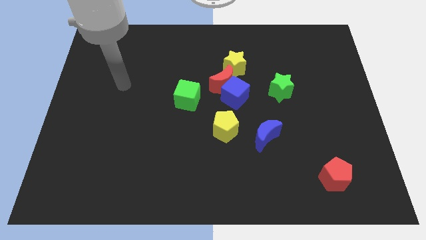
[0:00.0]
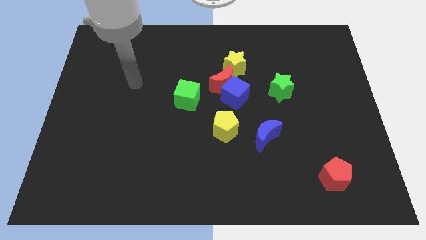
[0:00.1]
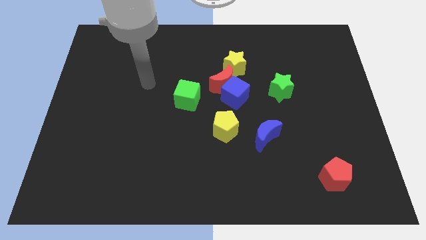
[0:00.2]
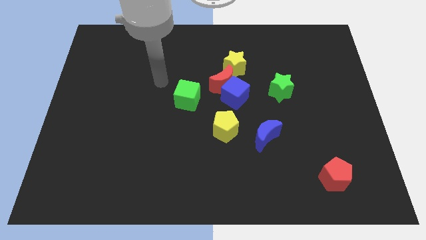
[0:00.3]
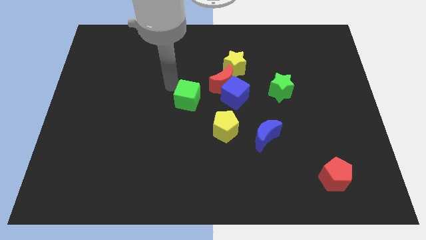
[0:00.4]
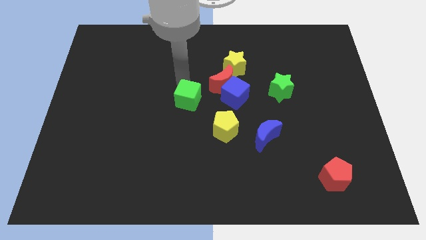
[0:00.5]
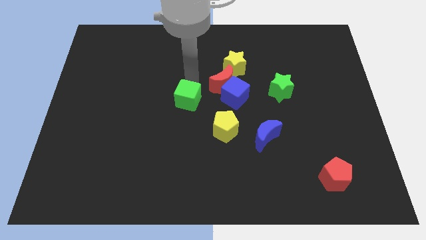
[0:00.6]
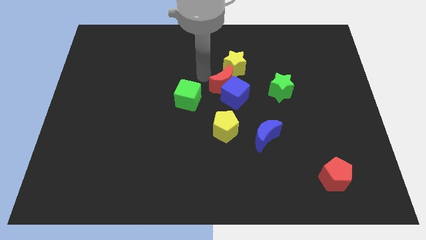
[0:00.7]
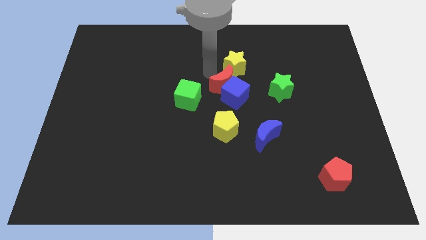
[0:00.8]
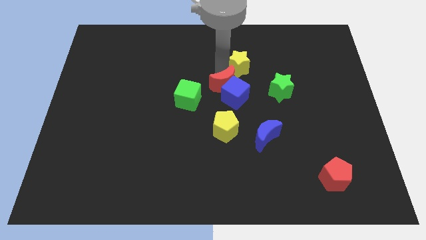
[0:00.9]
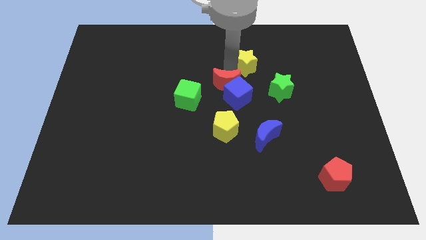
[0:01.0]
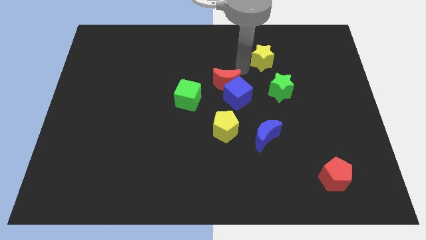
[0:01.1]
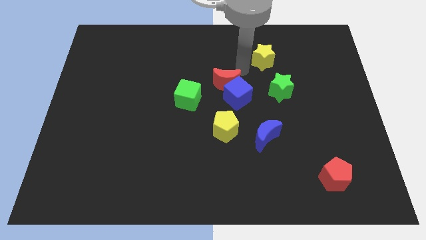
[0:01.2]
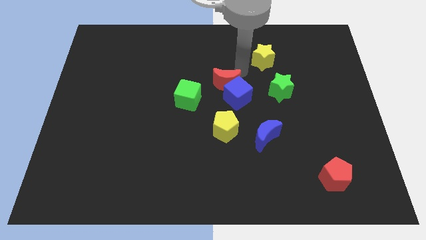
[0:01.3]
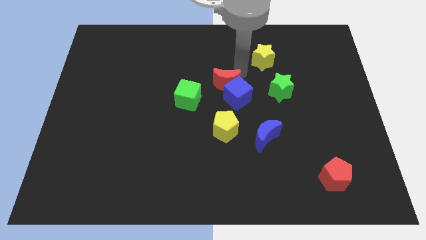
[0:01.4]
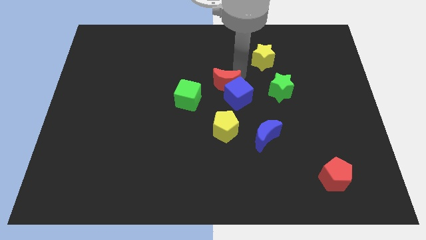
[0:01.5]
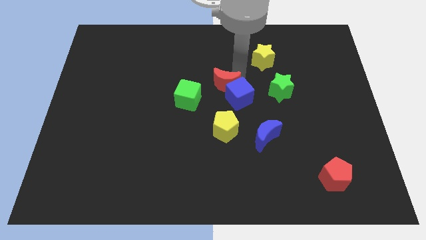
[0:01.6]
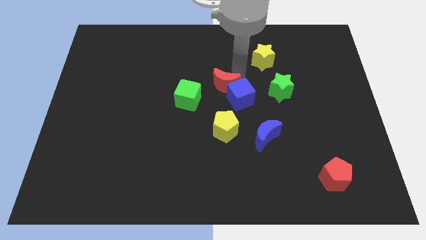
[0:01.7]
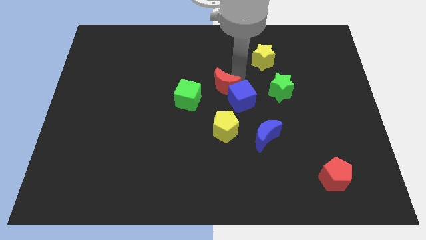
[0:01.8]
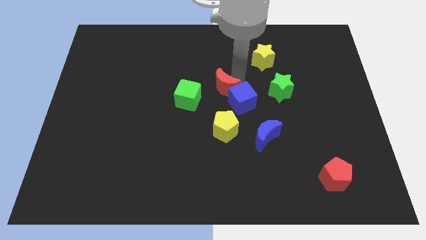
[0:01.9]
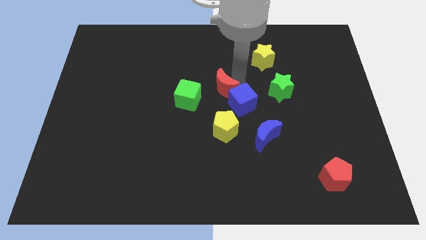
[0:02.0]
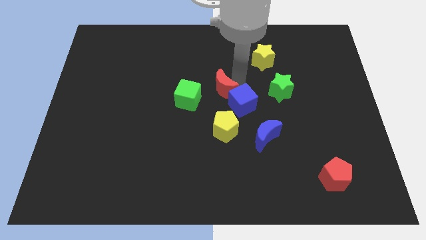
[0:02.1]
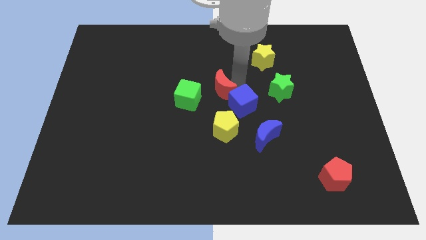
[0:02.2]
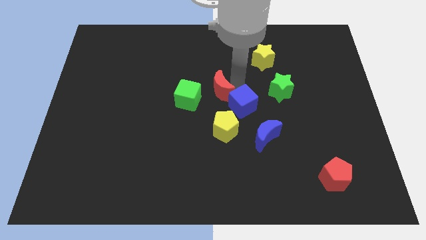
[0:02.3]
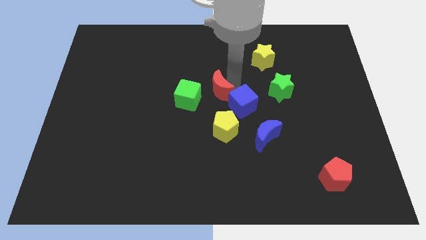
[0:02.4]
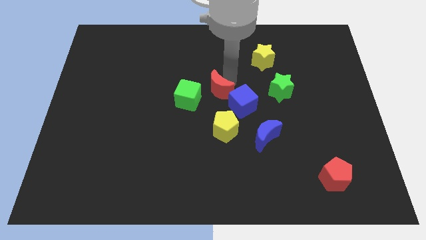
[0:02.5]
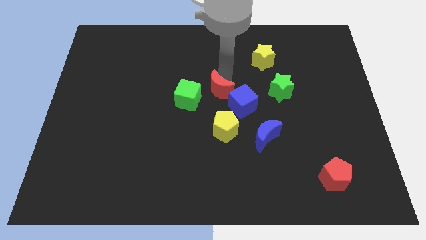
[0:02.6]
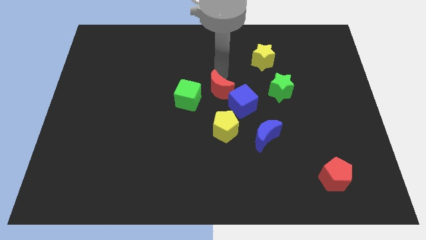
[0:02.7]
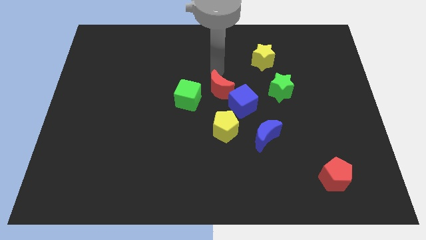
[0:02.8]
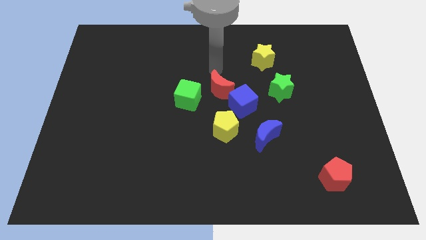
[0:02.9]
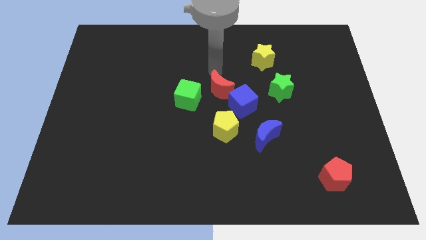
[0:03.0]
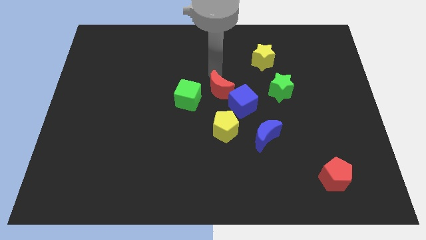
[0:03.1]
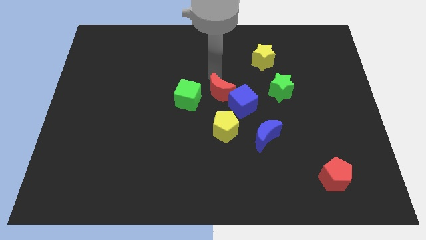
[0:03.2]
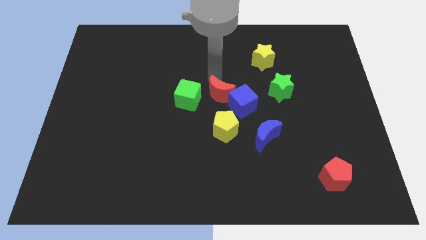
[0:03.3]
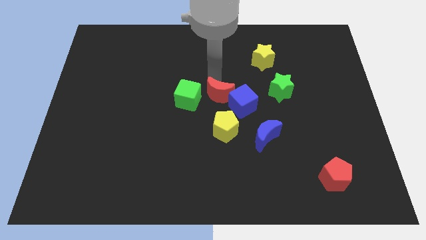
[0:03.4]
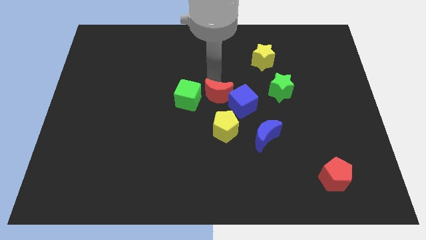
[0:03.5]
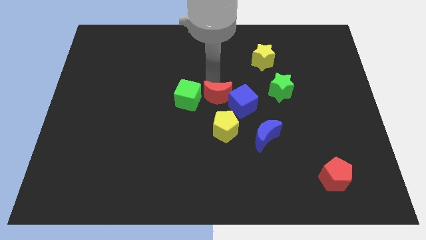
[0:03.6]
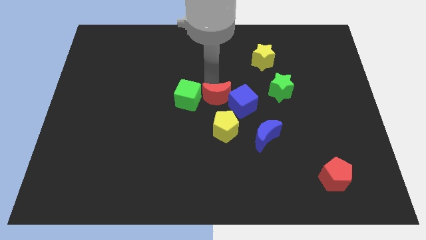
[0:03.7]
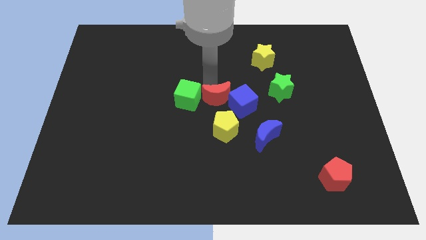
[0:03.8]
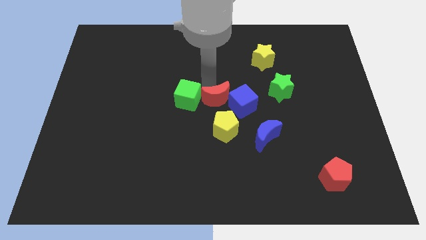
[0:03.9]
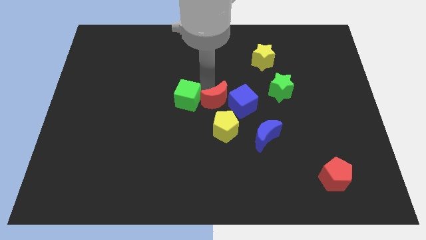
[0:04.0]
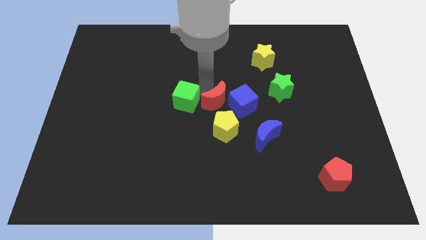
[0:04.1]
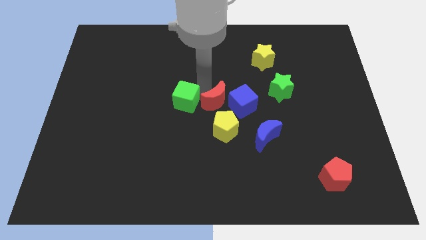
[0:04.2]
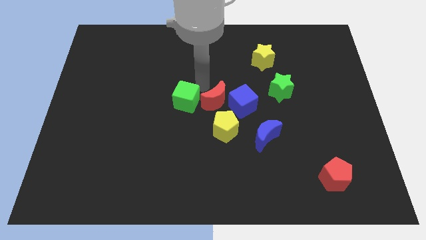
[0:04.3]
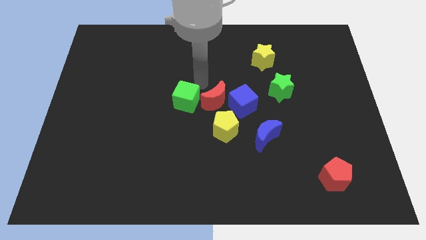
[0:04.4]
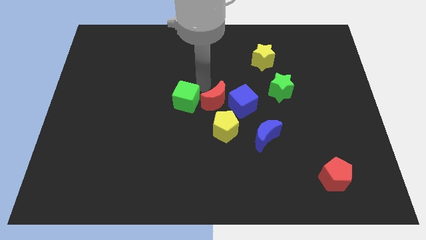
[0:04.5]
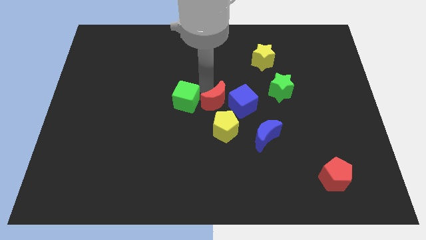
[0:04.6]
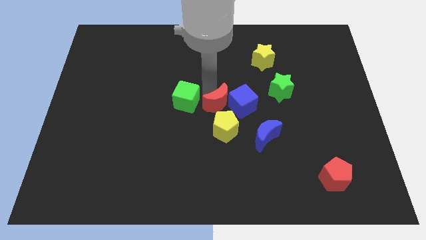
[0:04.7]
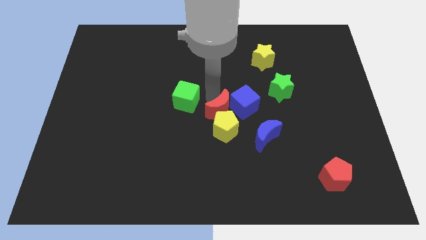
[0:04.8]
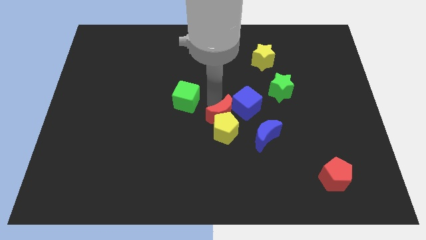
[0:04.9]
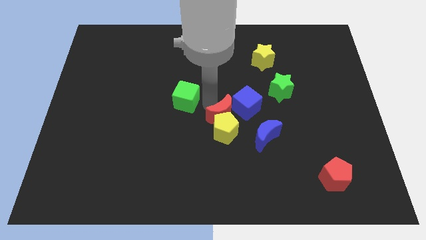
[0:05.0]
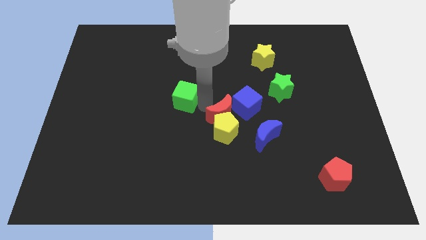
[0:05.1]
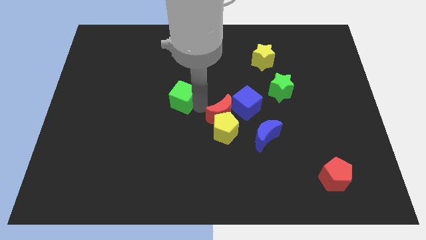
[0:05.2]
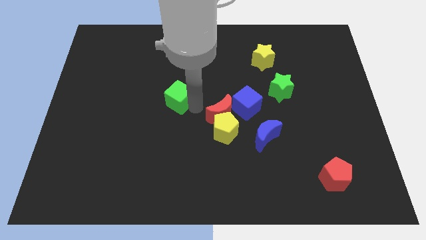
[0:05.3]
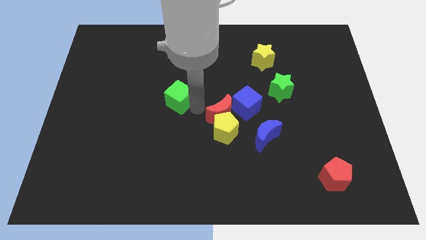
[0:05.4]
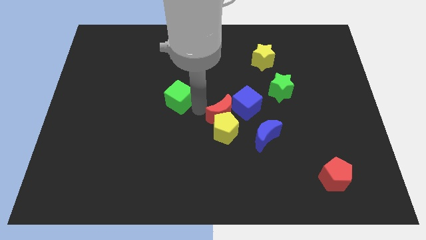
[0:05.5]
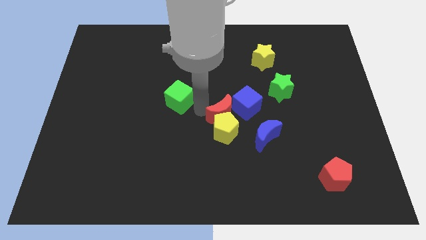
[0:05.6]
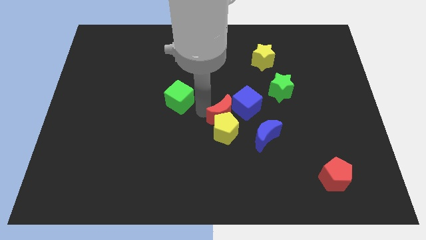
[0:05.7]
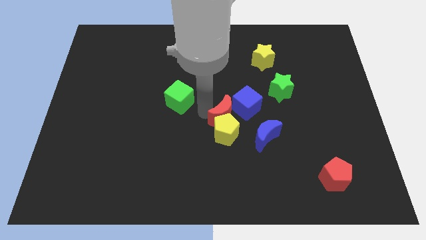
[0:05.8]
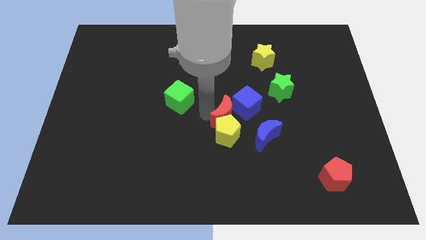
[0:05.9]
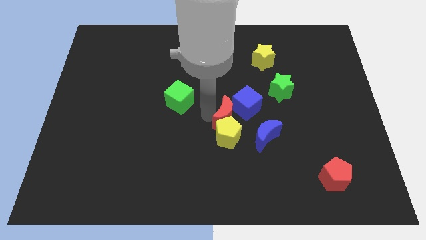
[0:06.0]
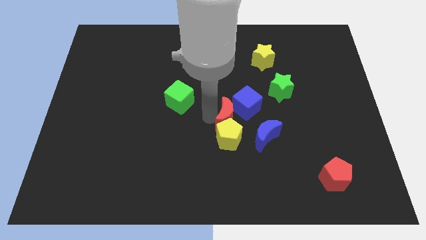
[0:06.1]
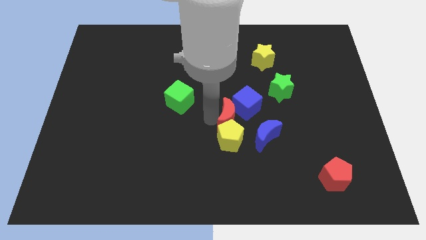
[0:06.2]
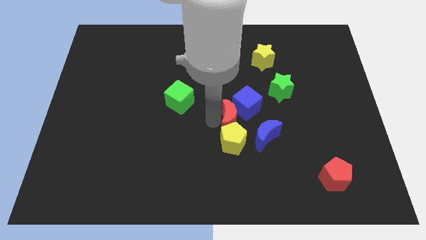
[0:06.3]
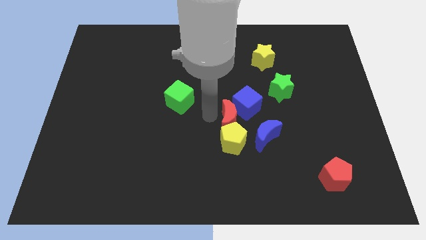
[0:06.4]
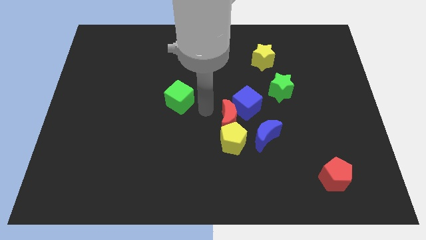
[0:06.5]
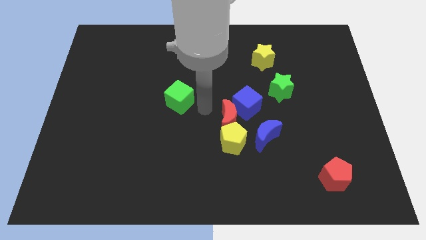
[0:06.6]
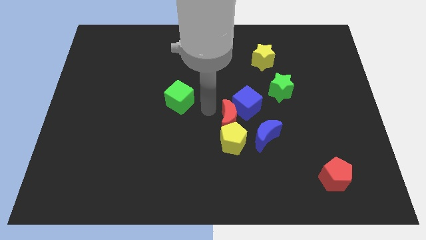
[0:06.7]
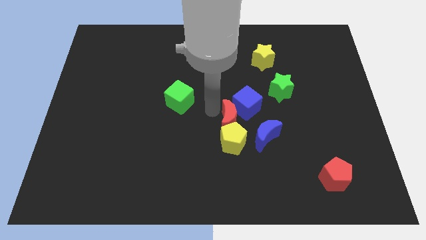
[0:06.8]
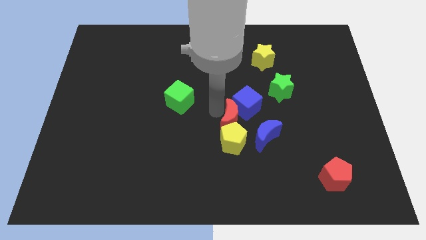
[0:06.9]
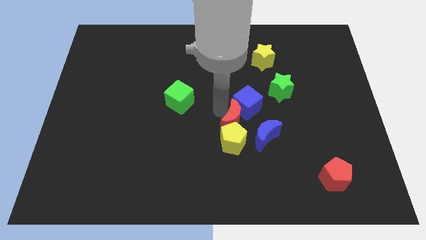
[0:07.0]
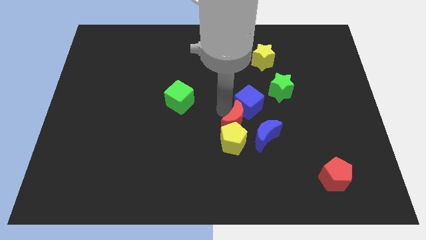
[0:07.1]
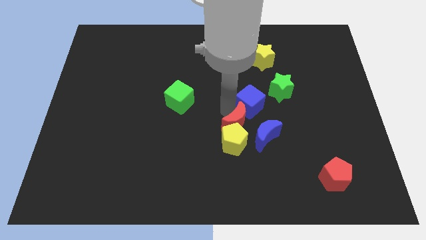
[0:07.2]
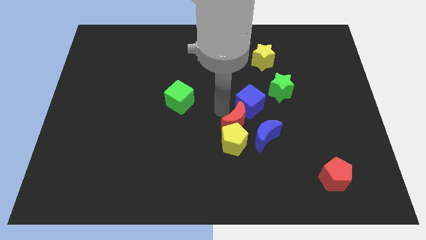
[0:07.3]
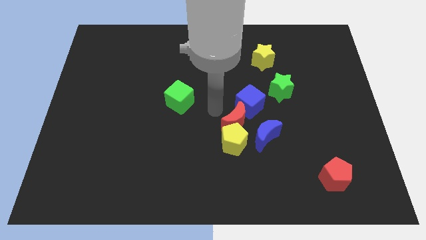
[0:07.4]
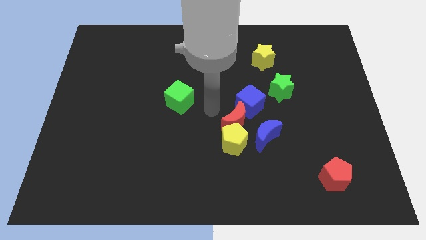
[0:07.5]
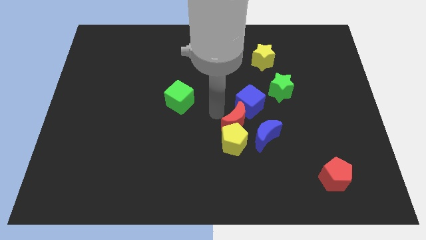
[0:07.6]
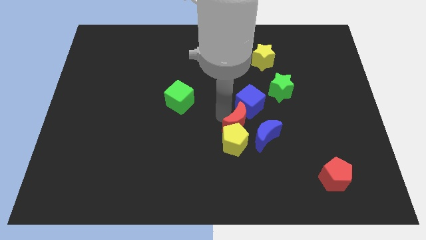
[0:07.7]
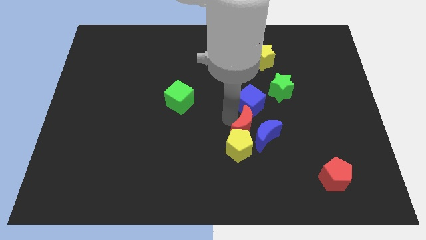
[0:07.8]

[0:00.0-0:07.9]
push the red moon to the blue moon

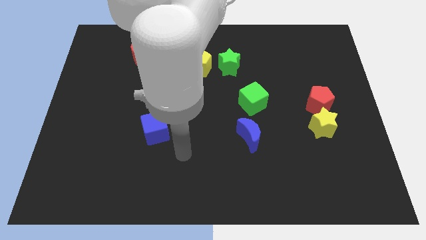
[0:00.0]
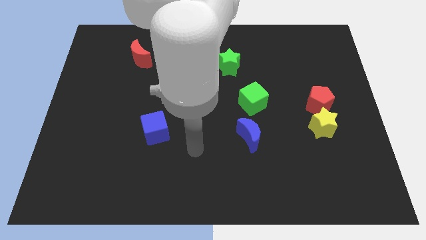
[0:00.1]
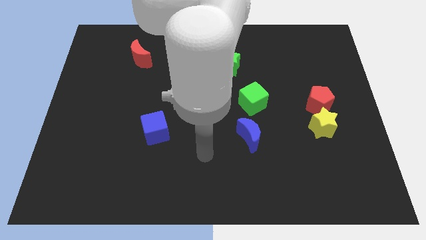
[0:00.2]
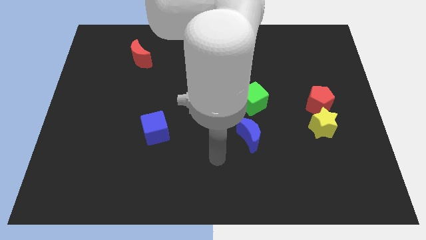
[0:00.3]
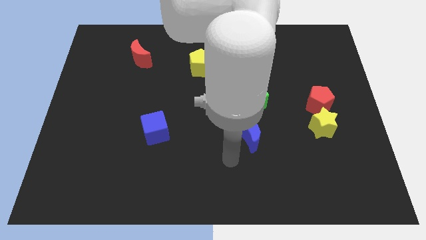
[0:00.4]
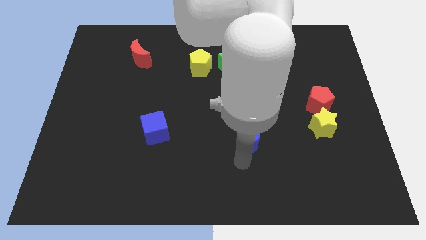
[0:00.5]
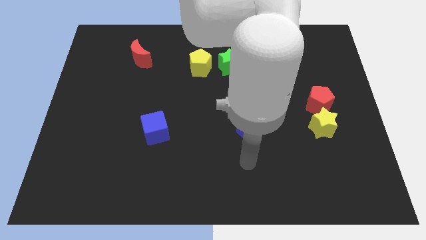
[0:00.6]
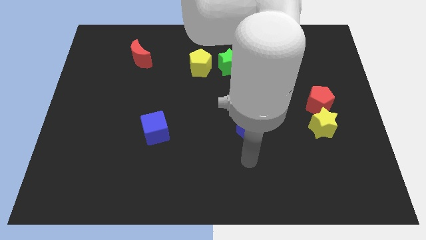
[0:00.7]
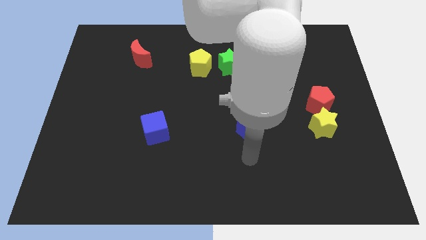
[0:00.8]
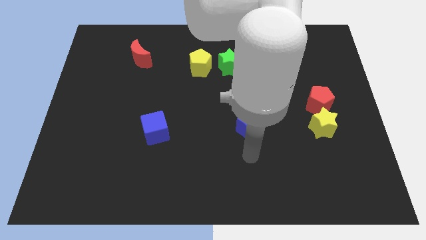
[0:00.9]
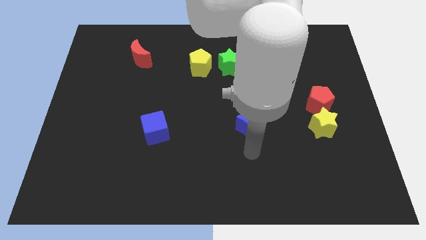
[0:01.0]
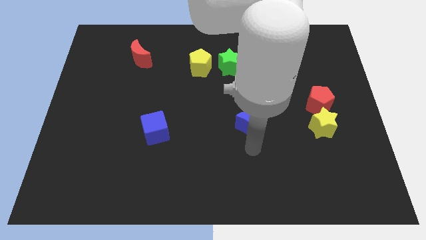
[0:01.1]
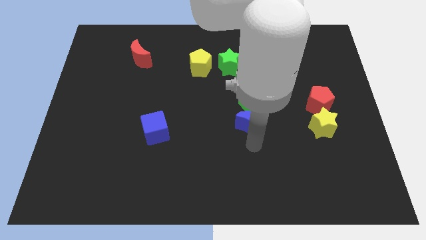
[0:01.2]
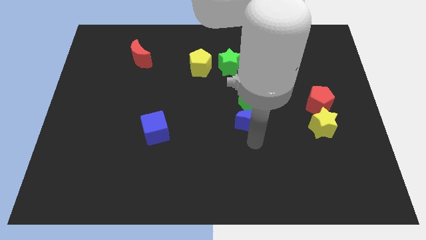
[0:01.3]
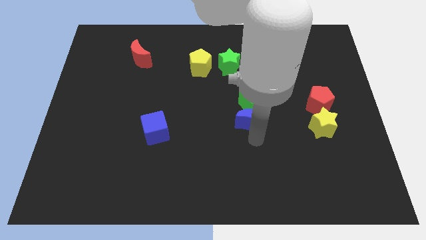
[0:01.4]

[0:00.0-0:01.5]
slide the blue moon to the green cube
